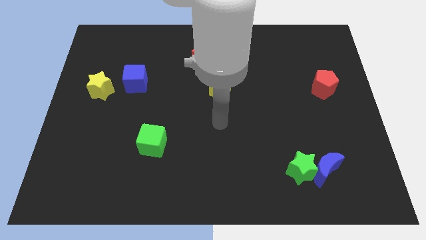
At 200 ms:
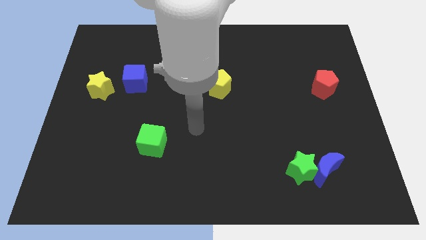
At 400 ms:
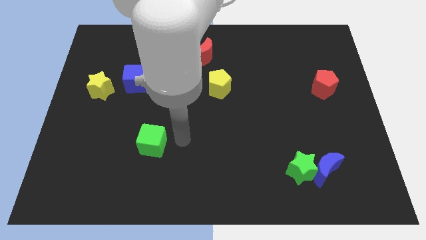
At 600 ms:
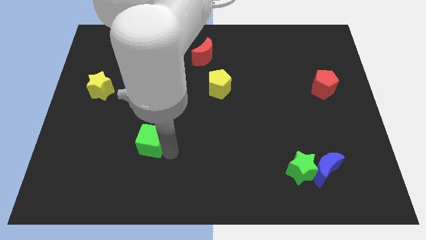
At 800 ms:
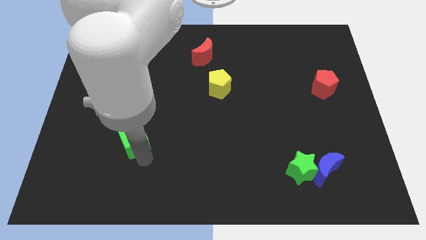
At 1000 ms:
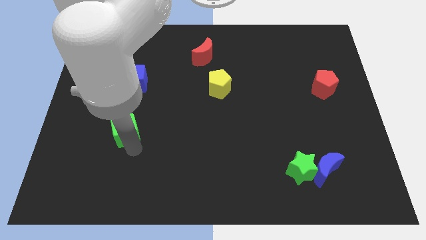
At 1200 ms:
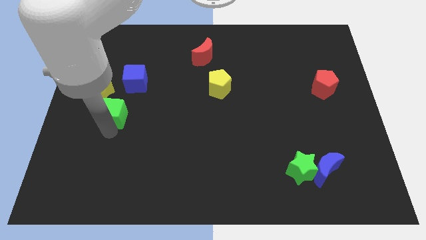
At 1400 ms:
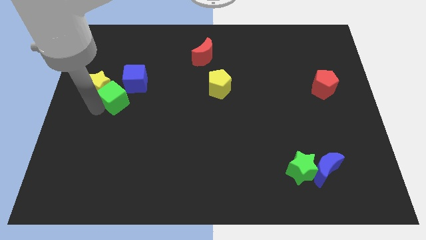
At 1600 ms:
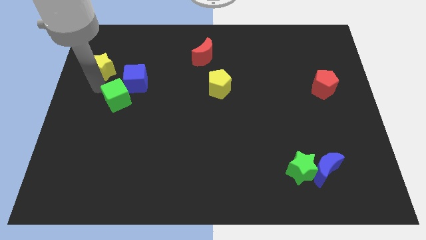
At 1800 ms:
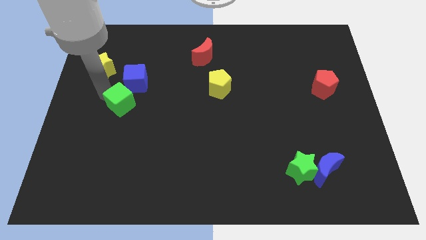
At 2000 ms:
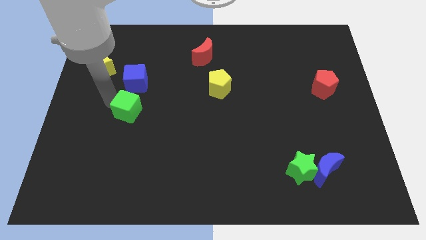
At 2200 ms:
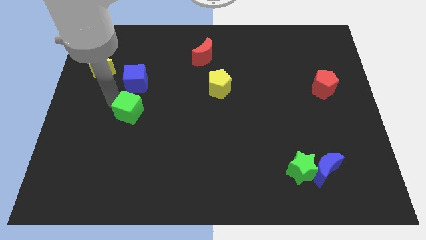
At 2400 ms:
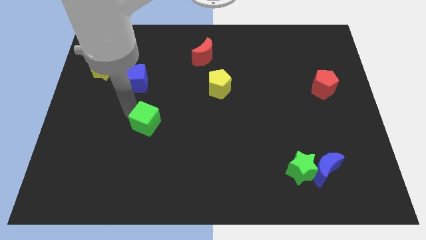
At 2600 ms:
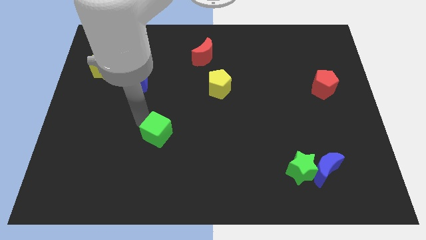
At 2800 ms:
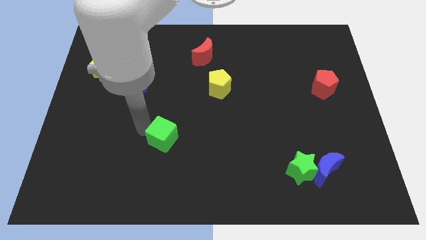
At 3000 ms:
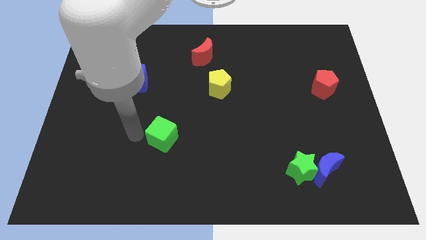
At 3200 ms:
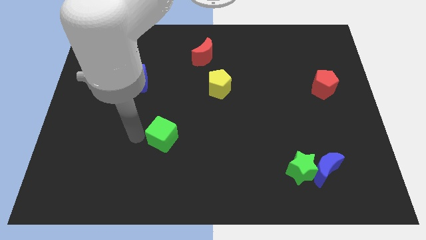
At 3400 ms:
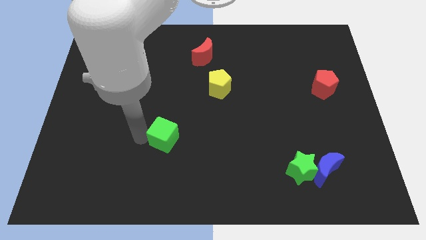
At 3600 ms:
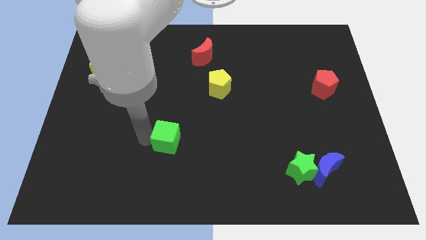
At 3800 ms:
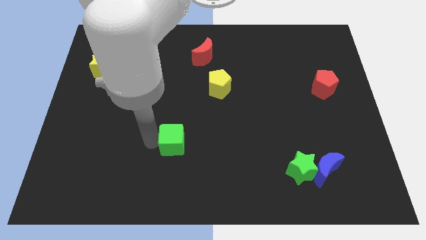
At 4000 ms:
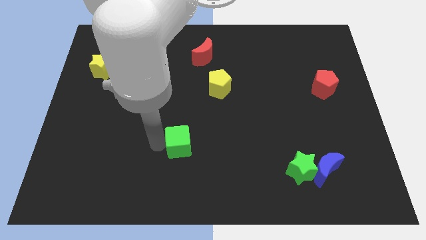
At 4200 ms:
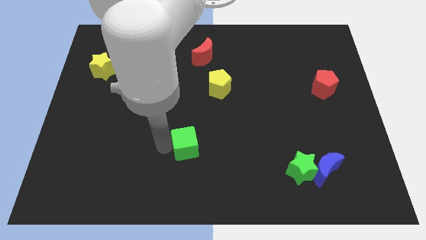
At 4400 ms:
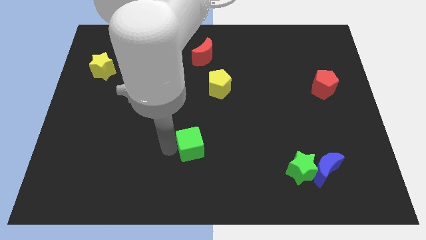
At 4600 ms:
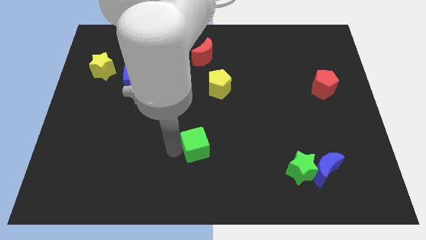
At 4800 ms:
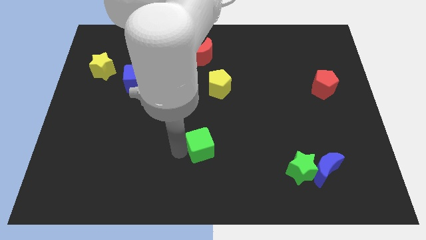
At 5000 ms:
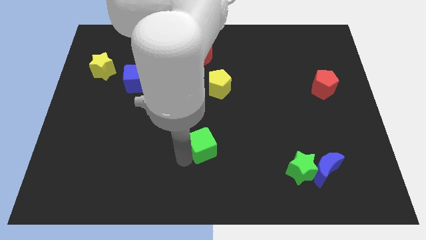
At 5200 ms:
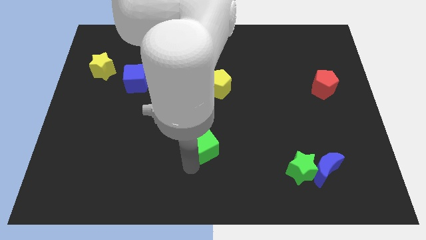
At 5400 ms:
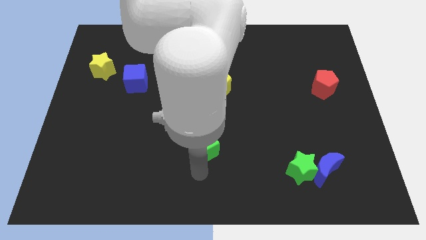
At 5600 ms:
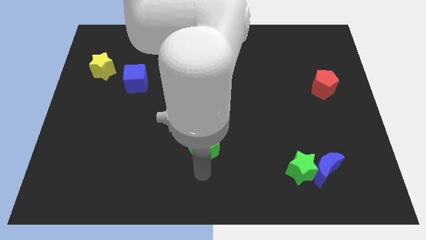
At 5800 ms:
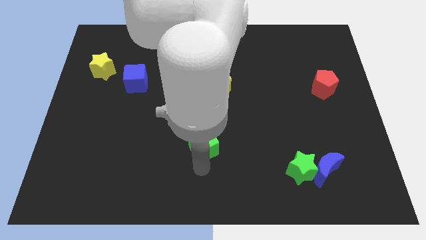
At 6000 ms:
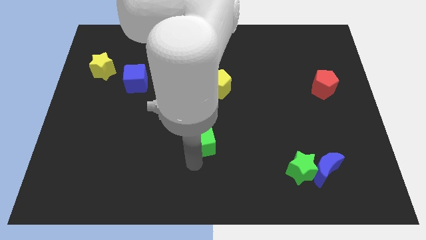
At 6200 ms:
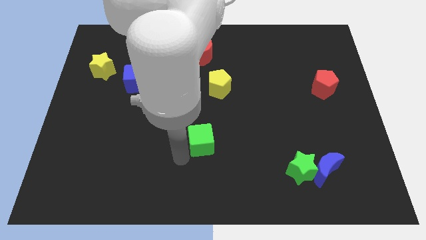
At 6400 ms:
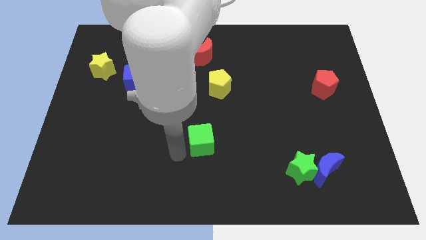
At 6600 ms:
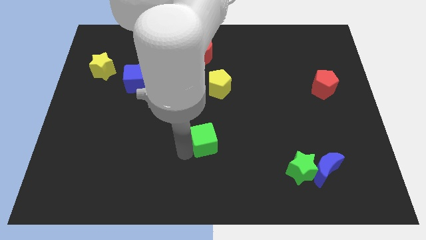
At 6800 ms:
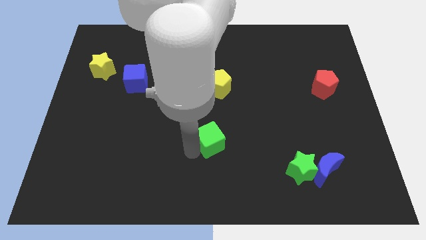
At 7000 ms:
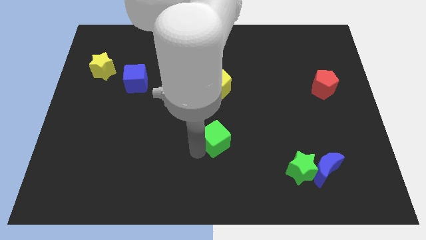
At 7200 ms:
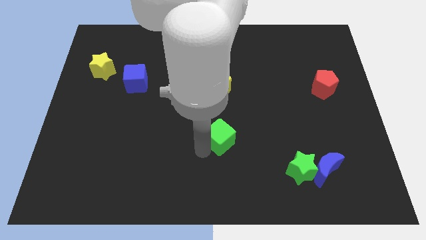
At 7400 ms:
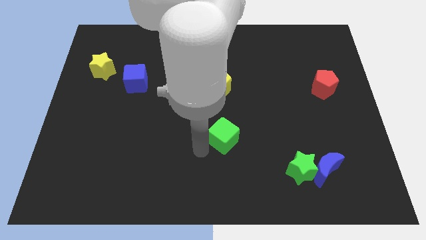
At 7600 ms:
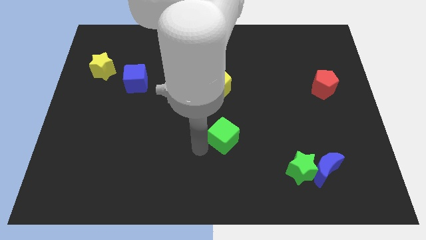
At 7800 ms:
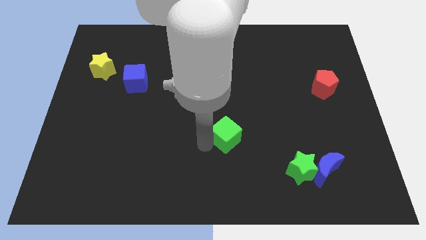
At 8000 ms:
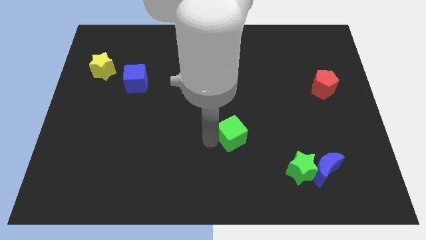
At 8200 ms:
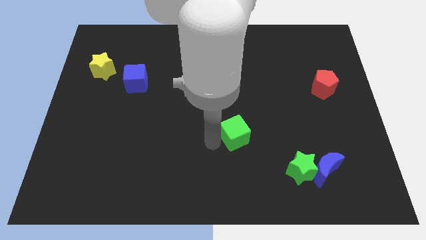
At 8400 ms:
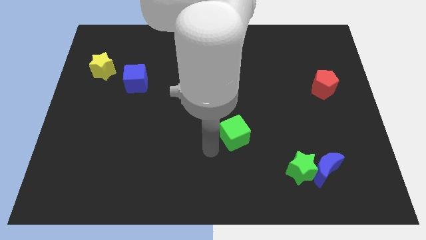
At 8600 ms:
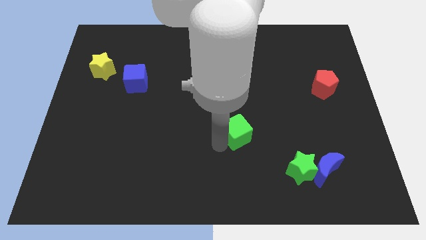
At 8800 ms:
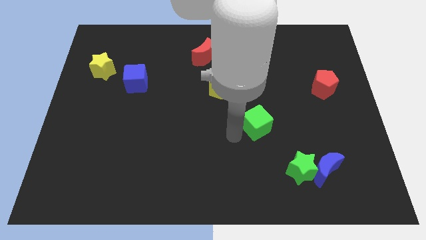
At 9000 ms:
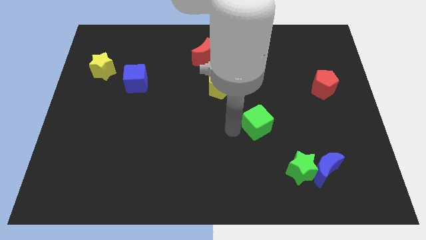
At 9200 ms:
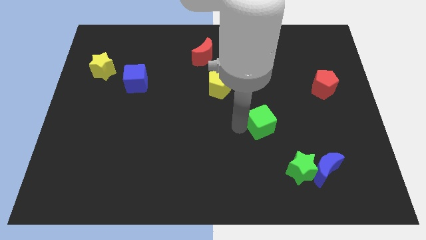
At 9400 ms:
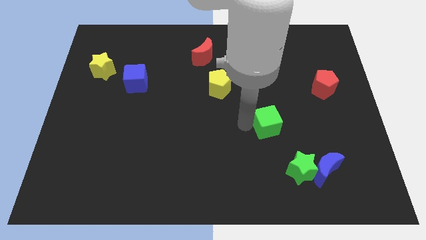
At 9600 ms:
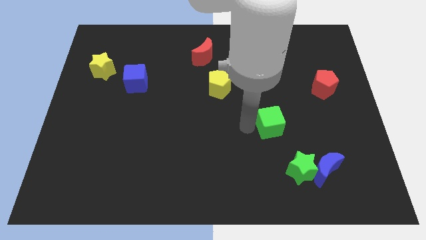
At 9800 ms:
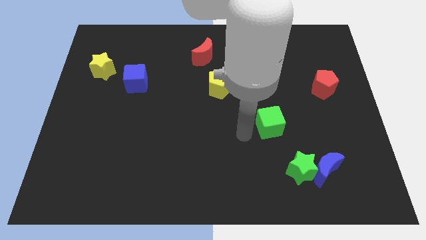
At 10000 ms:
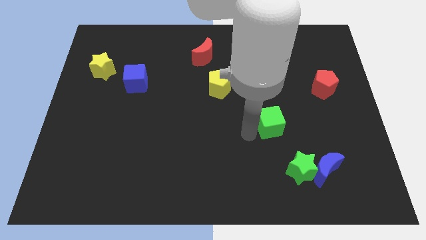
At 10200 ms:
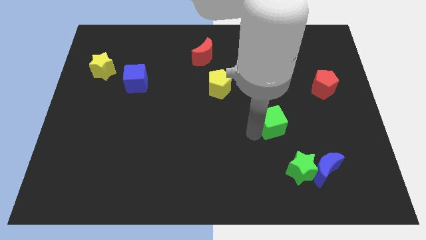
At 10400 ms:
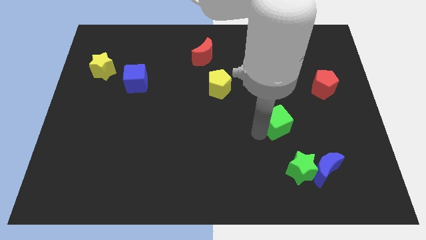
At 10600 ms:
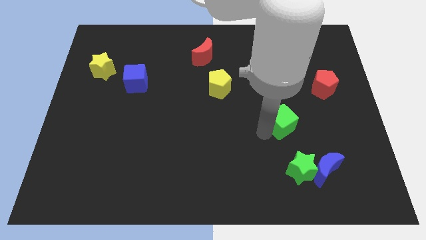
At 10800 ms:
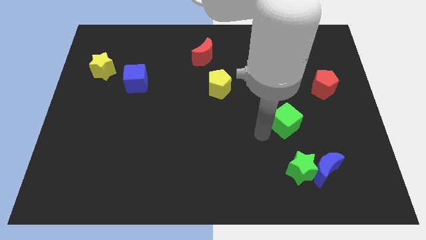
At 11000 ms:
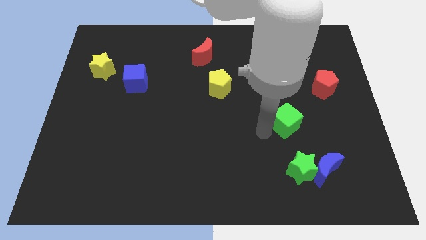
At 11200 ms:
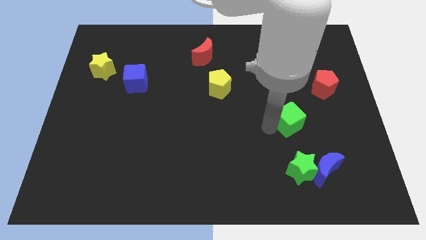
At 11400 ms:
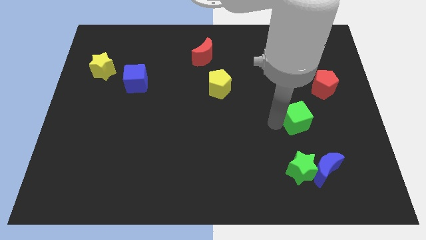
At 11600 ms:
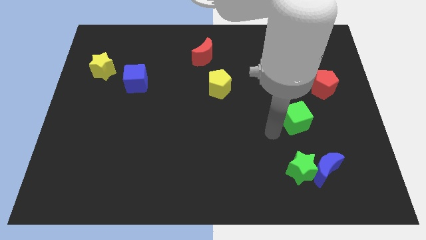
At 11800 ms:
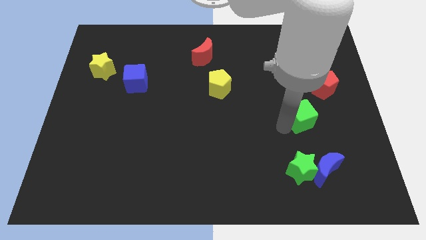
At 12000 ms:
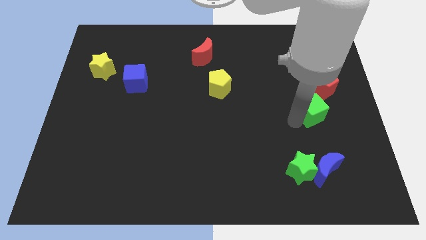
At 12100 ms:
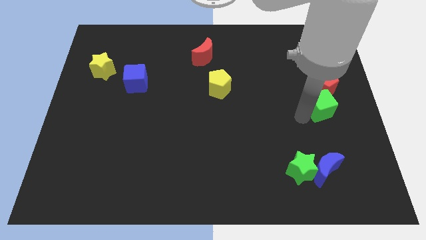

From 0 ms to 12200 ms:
slide the green cube to the right side of the board
